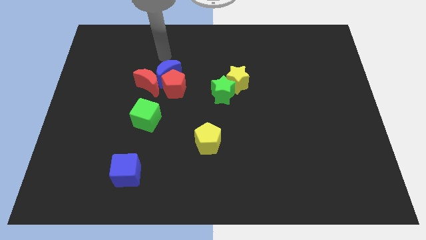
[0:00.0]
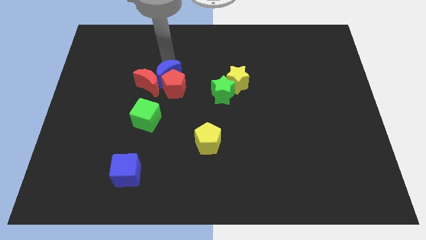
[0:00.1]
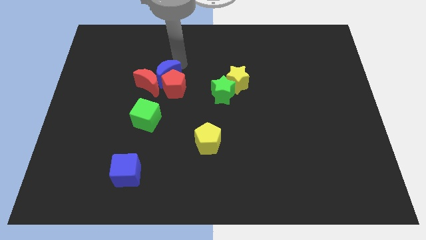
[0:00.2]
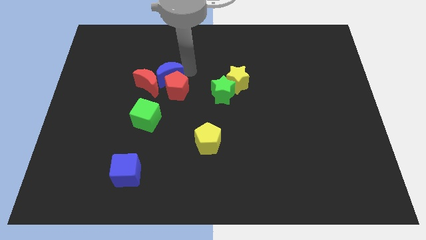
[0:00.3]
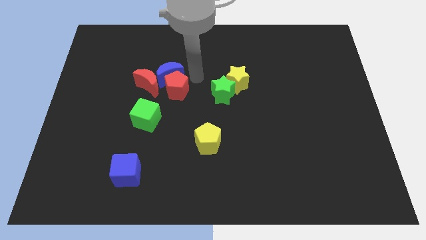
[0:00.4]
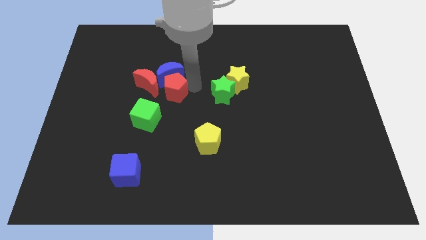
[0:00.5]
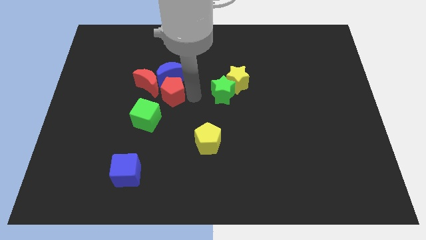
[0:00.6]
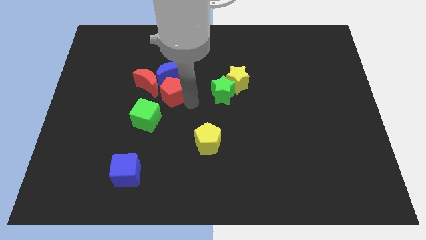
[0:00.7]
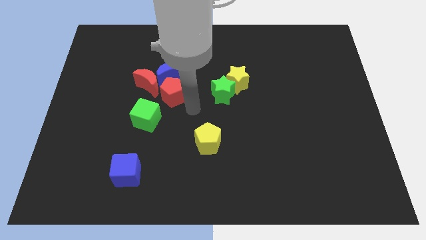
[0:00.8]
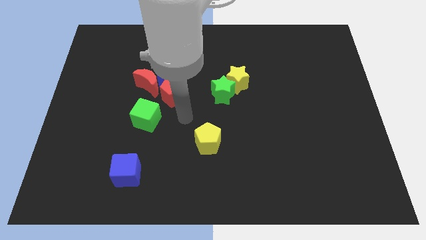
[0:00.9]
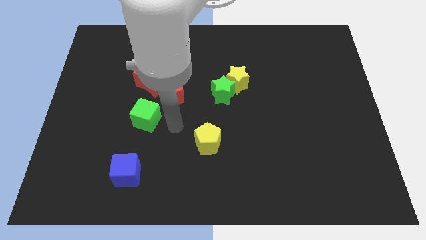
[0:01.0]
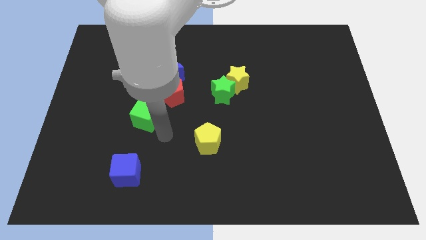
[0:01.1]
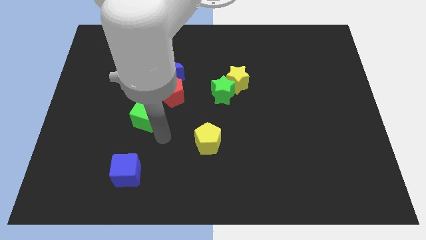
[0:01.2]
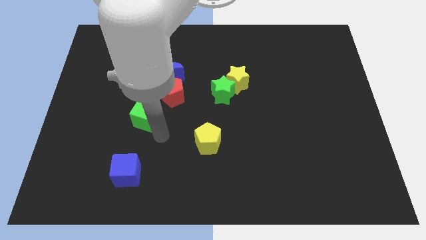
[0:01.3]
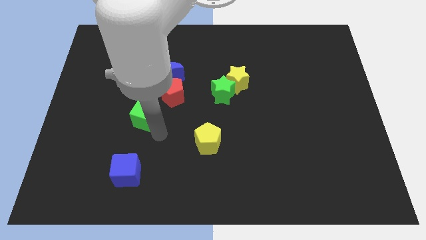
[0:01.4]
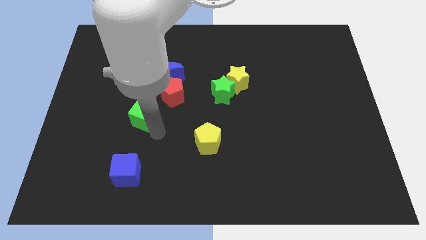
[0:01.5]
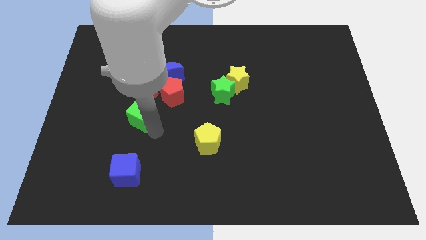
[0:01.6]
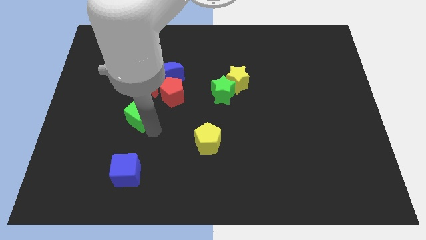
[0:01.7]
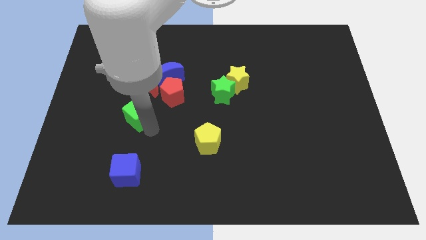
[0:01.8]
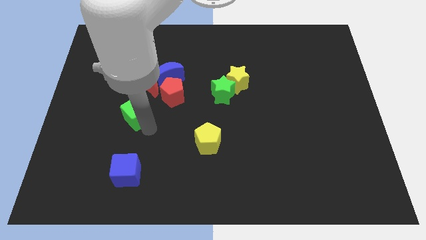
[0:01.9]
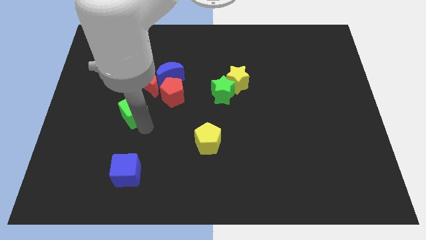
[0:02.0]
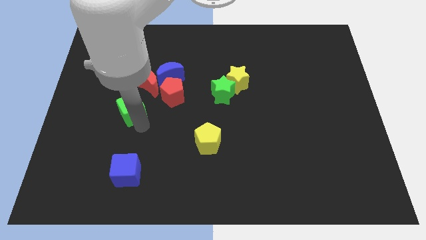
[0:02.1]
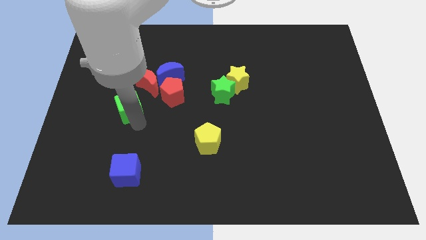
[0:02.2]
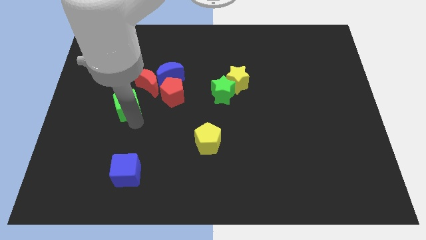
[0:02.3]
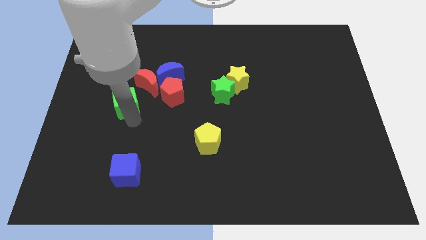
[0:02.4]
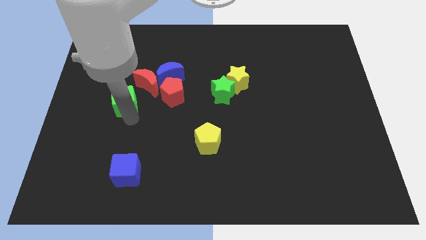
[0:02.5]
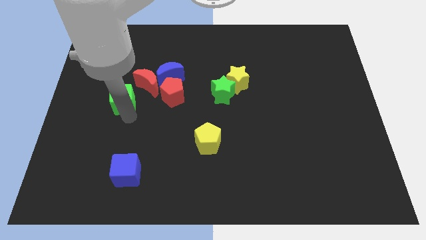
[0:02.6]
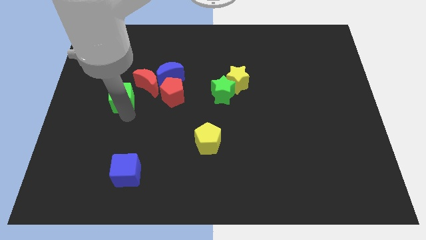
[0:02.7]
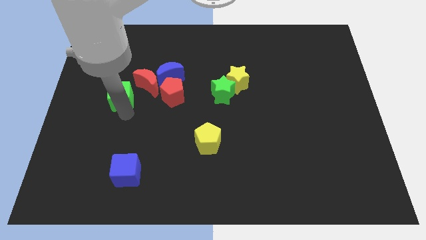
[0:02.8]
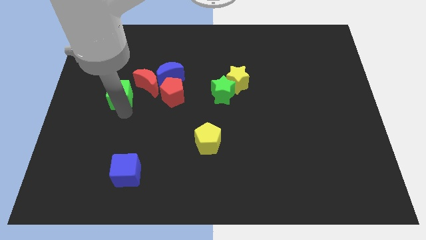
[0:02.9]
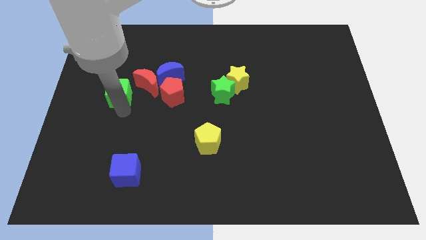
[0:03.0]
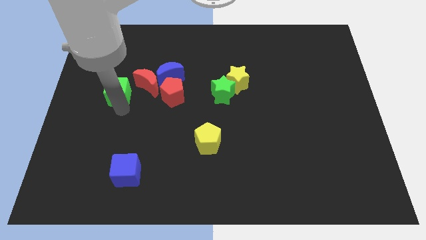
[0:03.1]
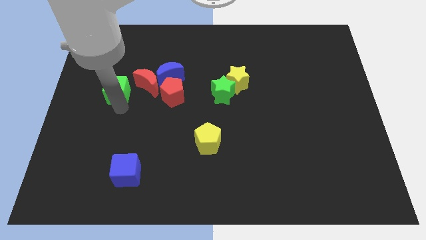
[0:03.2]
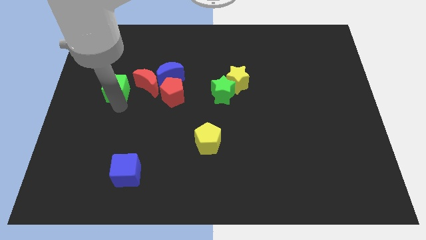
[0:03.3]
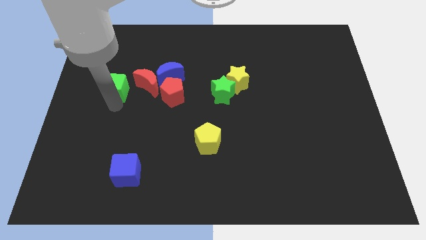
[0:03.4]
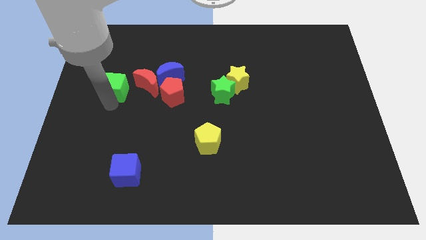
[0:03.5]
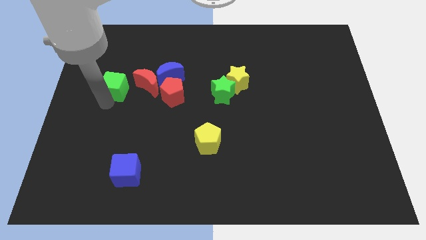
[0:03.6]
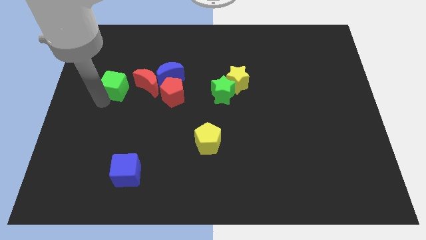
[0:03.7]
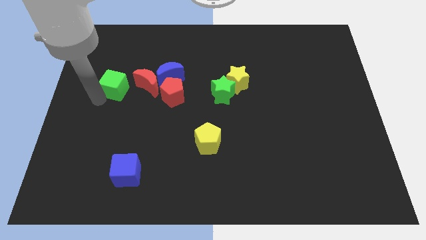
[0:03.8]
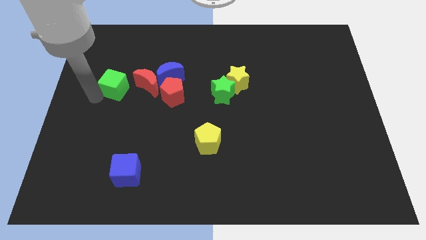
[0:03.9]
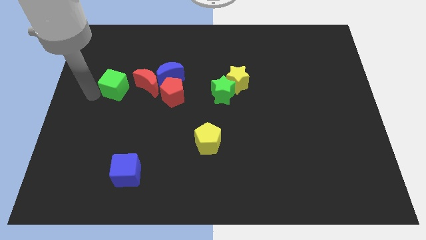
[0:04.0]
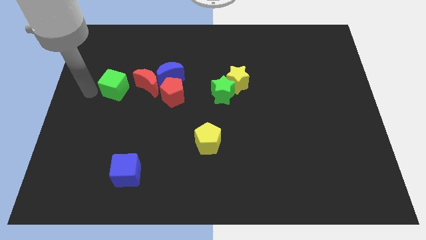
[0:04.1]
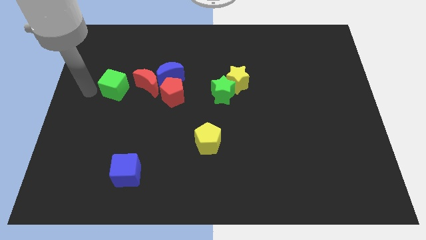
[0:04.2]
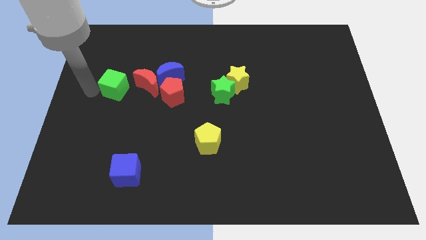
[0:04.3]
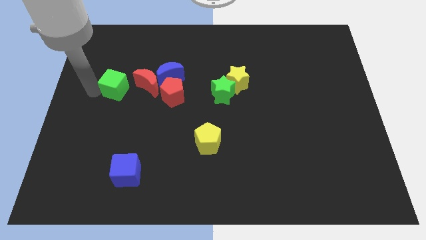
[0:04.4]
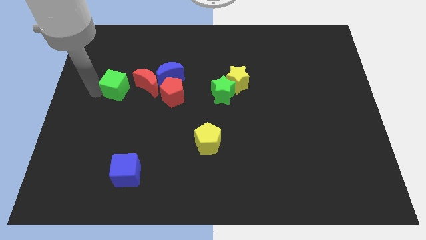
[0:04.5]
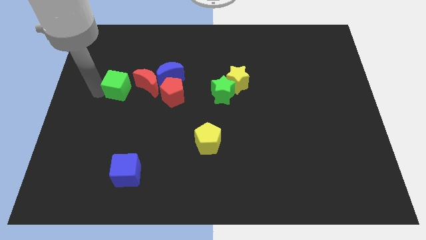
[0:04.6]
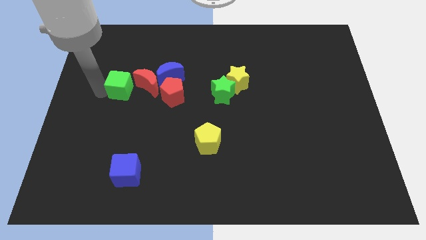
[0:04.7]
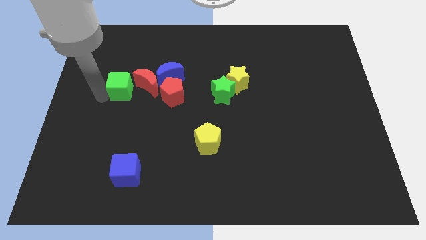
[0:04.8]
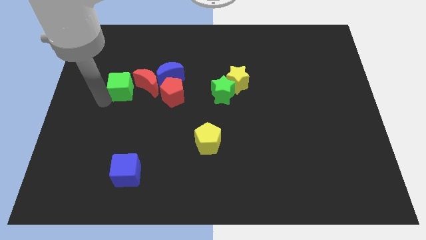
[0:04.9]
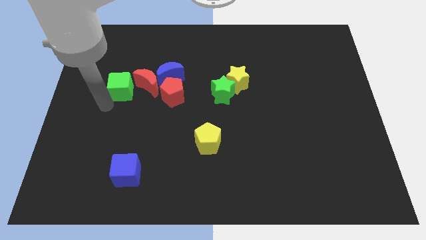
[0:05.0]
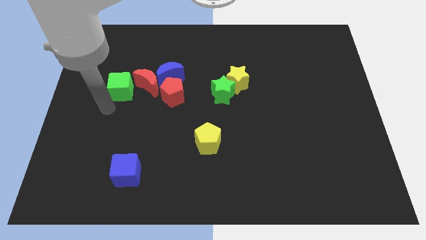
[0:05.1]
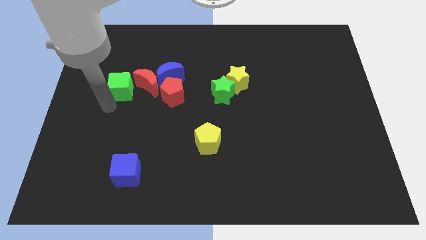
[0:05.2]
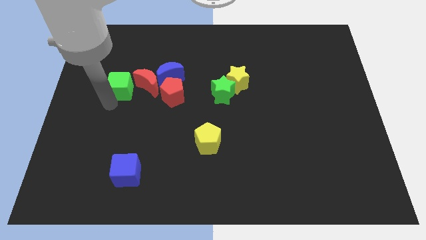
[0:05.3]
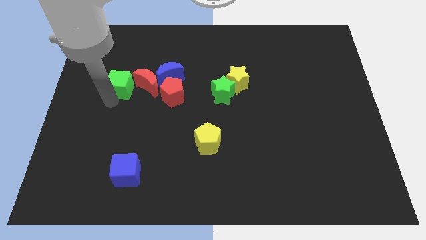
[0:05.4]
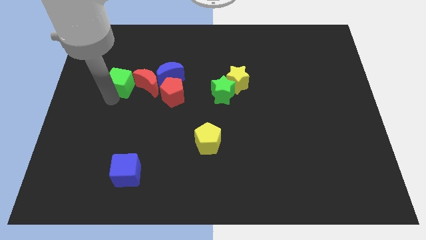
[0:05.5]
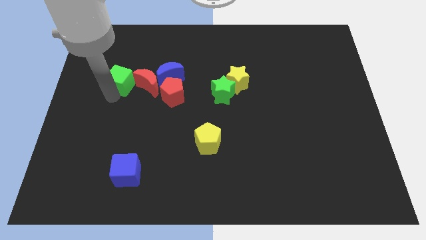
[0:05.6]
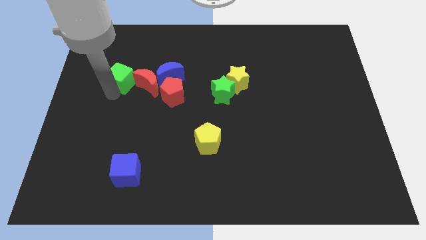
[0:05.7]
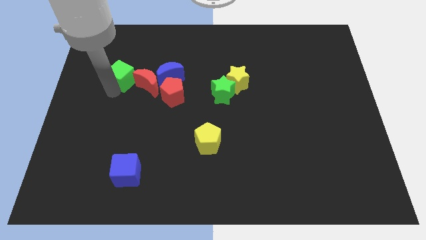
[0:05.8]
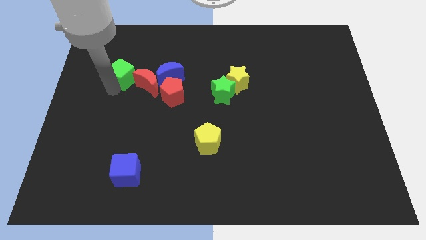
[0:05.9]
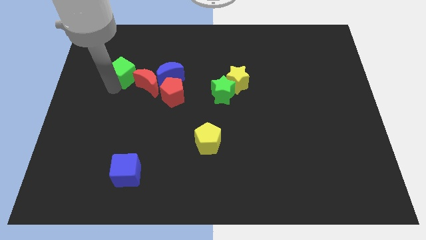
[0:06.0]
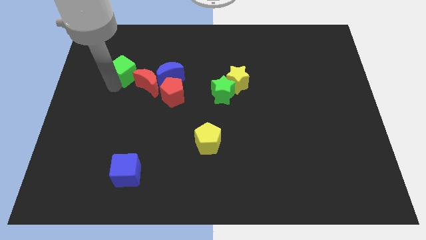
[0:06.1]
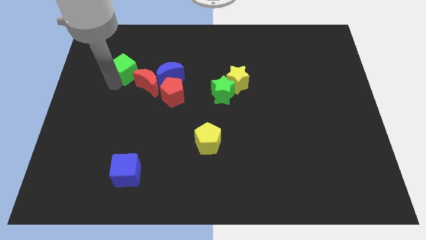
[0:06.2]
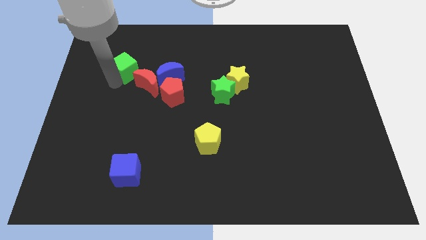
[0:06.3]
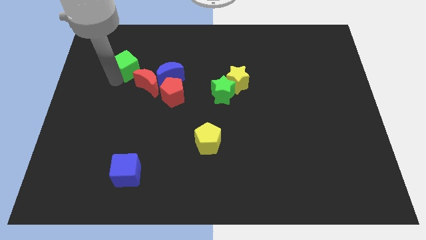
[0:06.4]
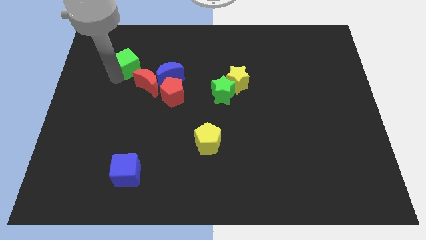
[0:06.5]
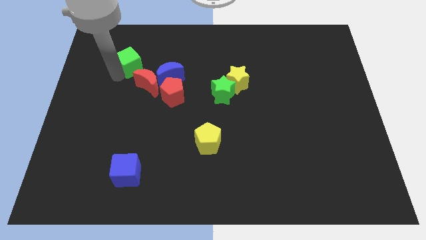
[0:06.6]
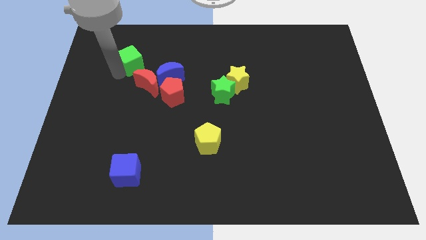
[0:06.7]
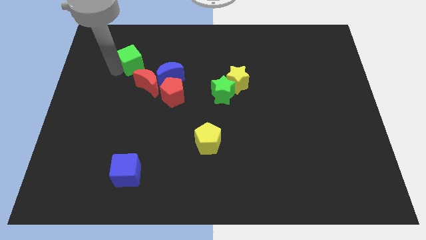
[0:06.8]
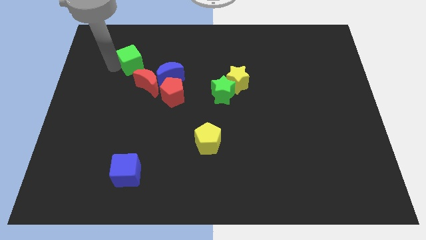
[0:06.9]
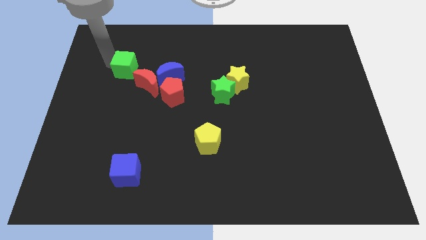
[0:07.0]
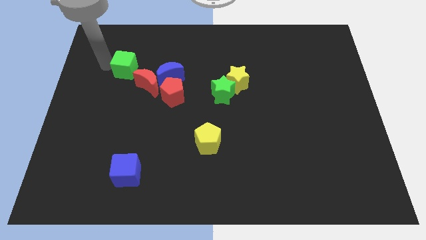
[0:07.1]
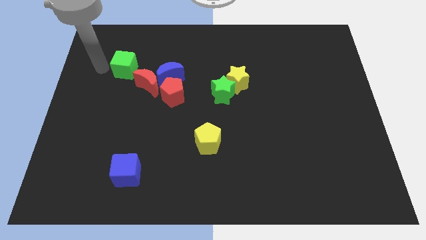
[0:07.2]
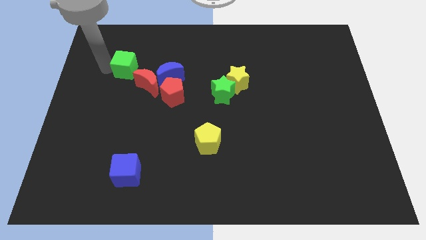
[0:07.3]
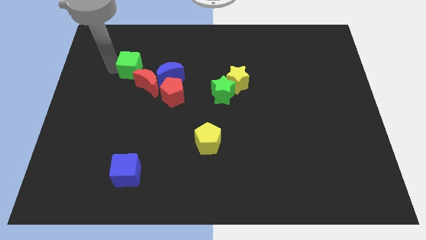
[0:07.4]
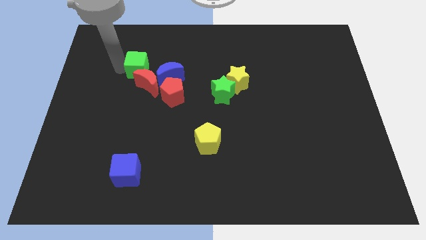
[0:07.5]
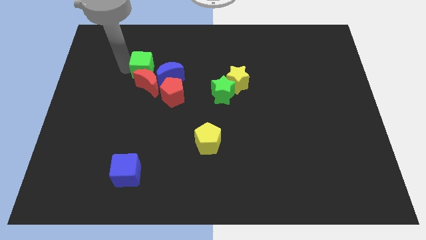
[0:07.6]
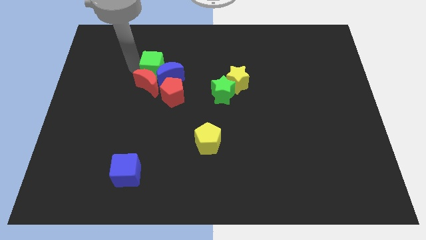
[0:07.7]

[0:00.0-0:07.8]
push the green cube next to the blue moon

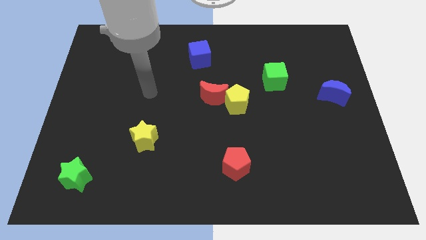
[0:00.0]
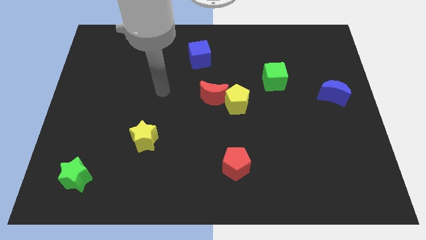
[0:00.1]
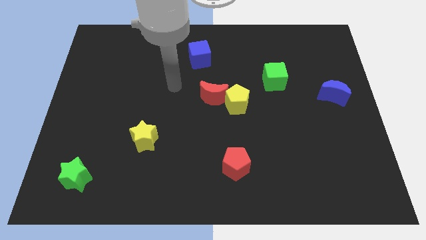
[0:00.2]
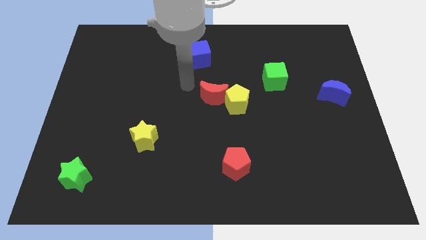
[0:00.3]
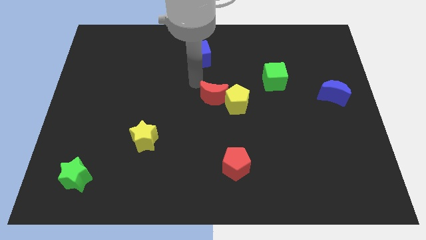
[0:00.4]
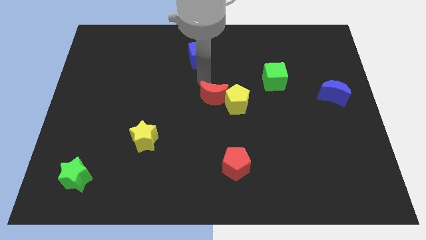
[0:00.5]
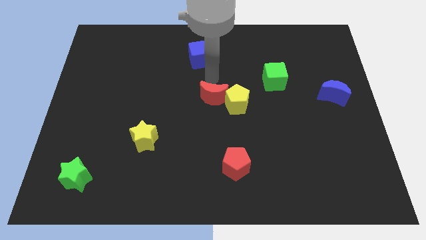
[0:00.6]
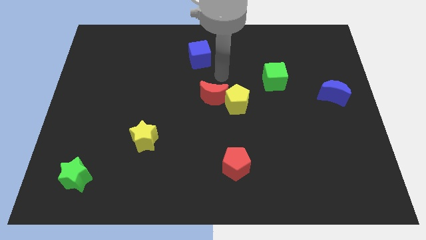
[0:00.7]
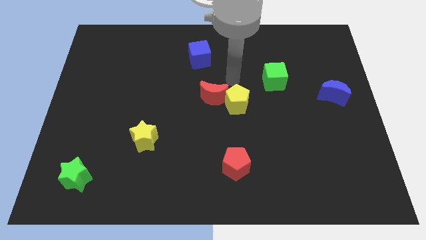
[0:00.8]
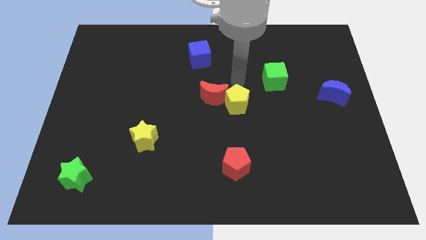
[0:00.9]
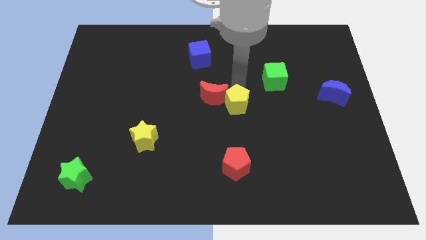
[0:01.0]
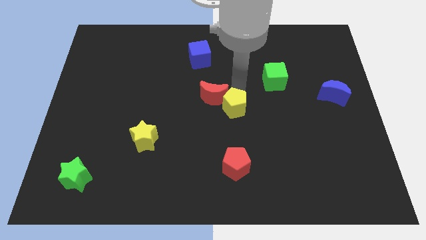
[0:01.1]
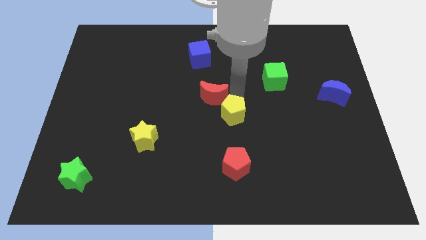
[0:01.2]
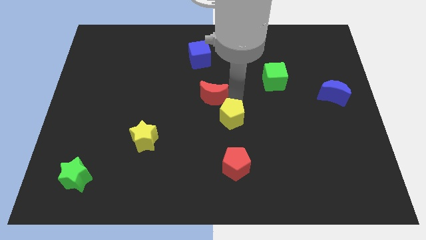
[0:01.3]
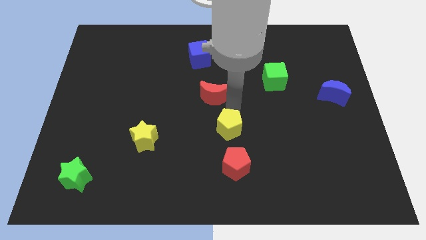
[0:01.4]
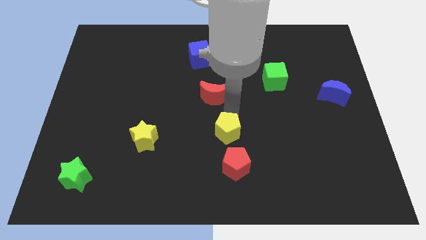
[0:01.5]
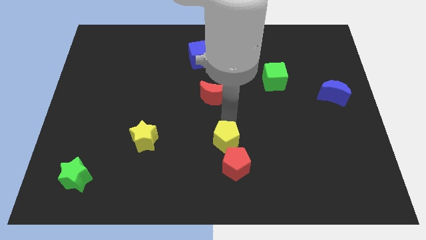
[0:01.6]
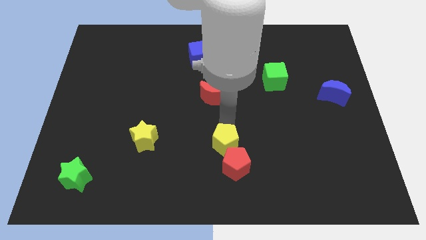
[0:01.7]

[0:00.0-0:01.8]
slide the yellow pentagon next to the red pentagon
